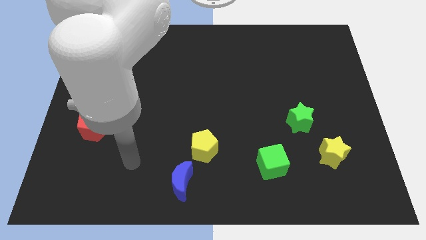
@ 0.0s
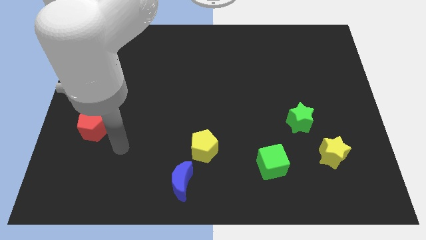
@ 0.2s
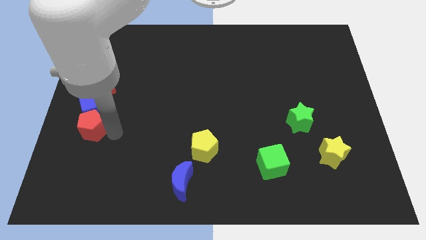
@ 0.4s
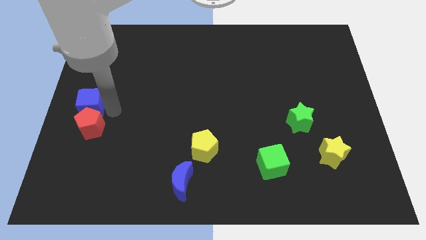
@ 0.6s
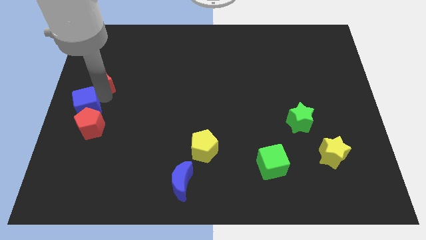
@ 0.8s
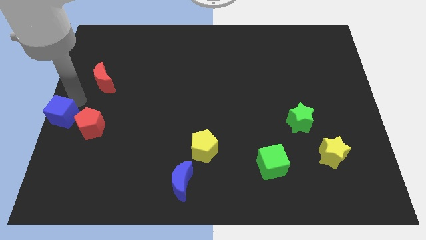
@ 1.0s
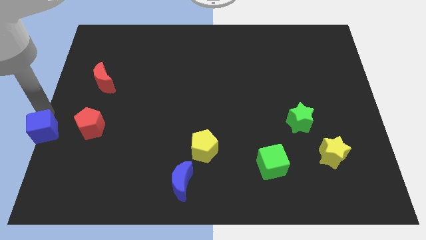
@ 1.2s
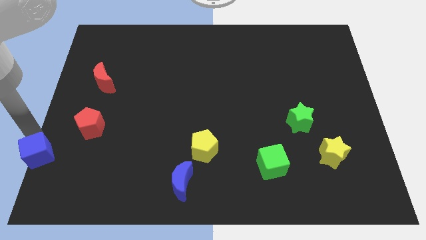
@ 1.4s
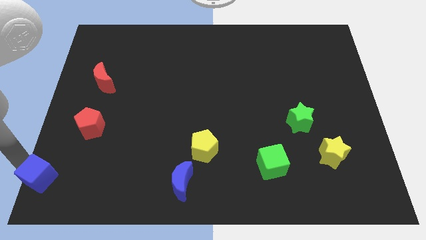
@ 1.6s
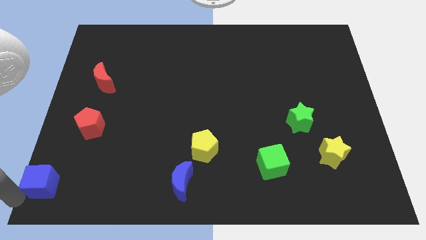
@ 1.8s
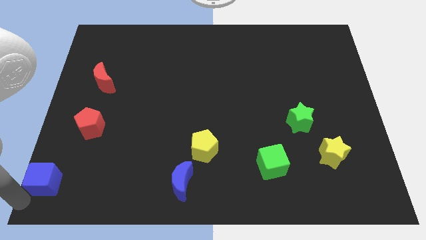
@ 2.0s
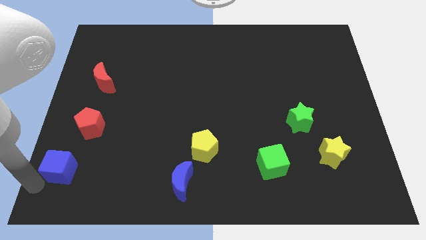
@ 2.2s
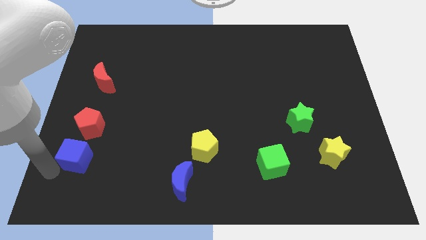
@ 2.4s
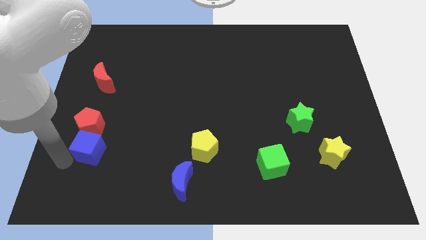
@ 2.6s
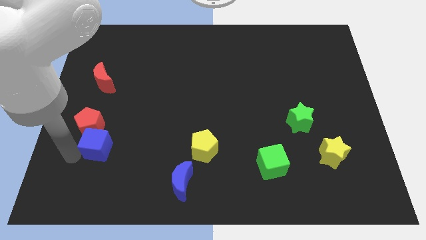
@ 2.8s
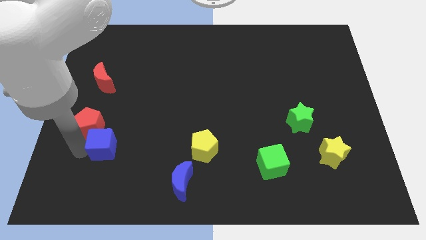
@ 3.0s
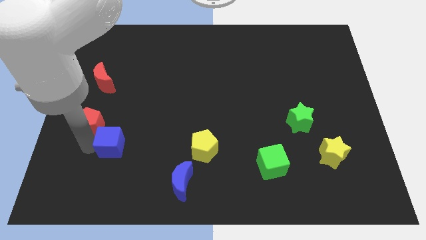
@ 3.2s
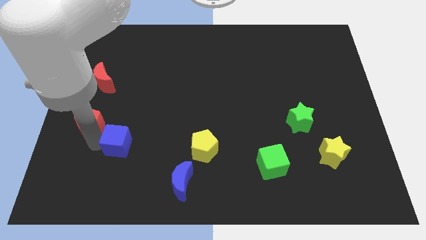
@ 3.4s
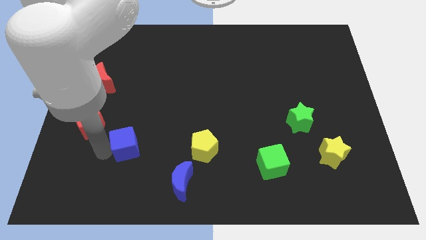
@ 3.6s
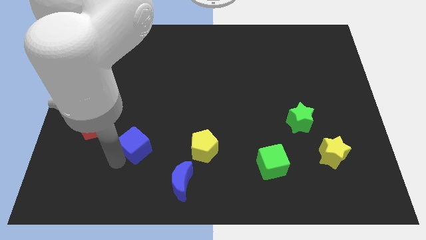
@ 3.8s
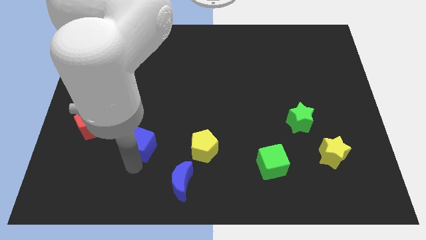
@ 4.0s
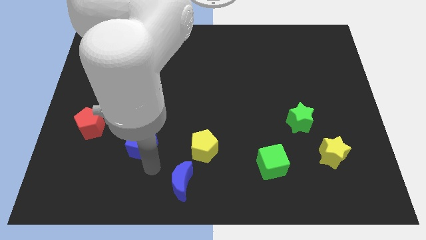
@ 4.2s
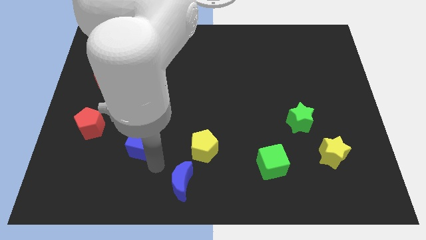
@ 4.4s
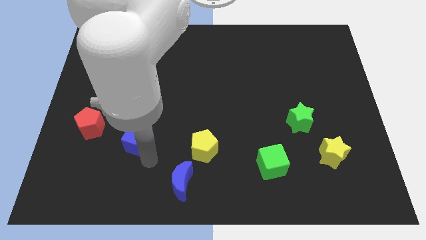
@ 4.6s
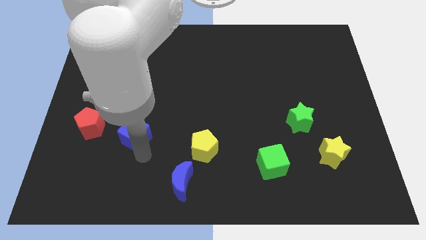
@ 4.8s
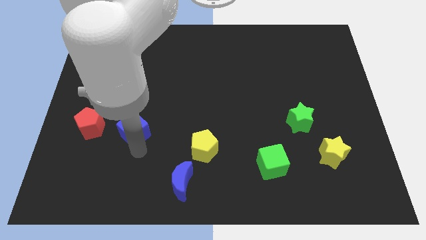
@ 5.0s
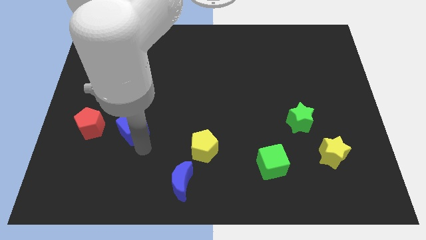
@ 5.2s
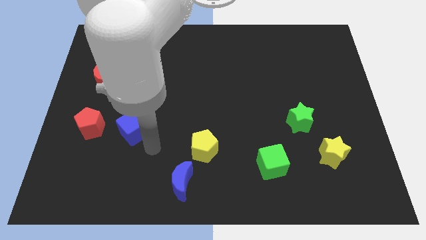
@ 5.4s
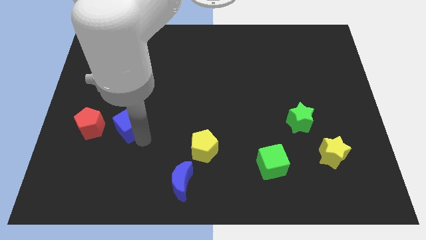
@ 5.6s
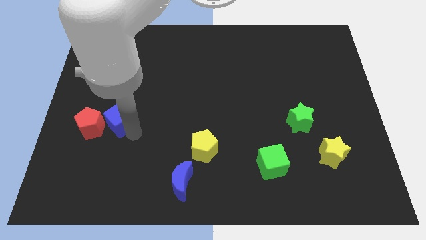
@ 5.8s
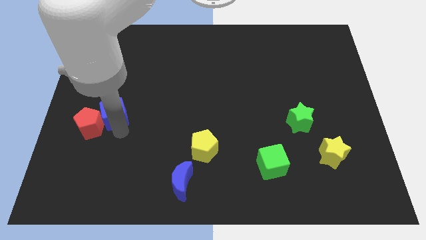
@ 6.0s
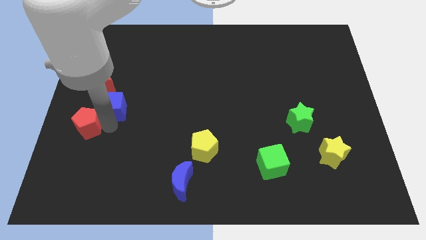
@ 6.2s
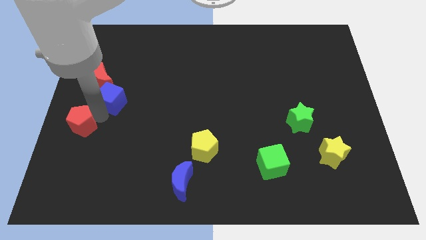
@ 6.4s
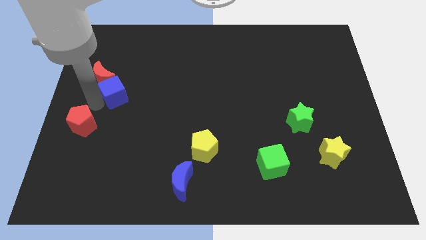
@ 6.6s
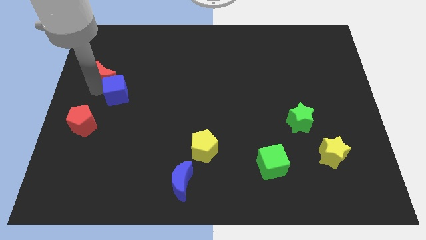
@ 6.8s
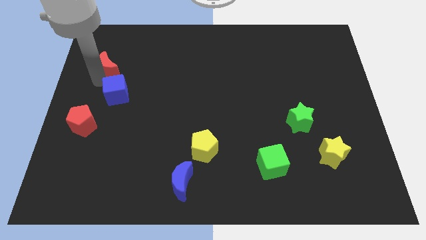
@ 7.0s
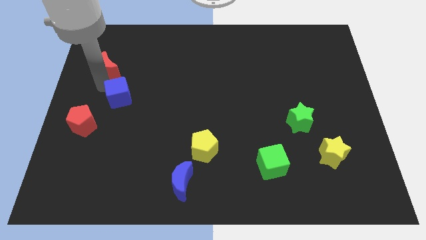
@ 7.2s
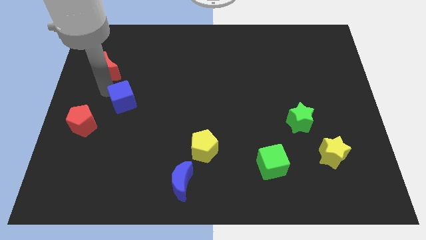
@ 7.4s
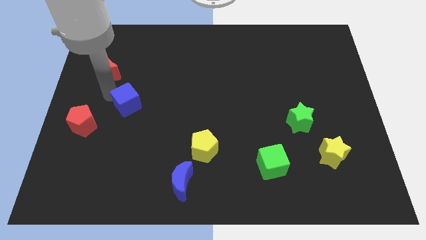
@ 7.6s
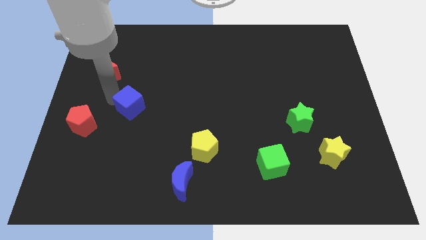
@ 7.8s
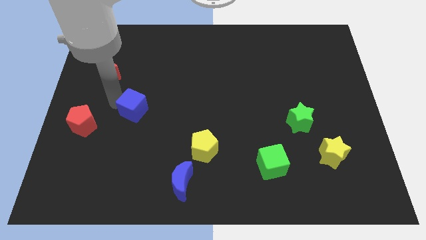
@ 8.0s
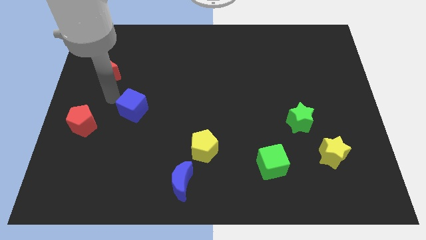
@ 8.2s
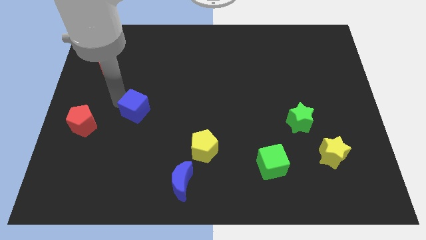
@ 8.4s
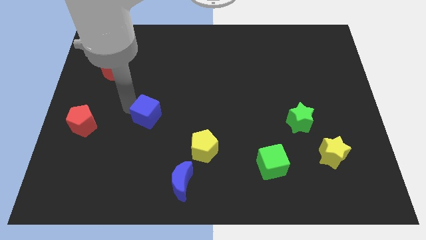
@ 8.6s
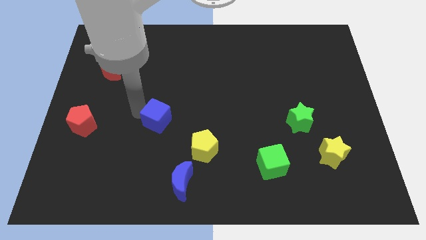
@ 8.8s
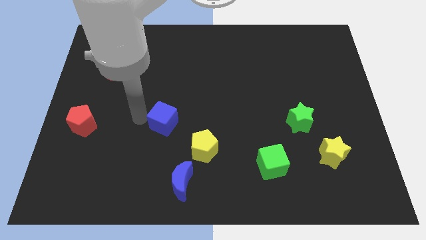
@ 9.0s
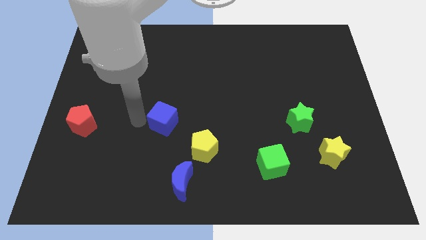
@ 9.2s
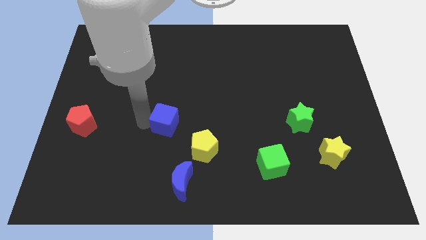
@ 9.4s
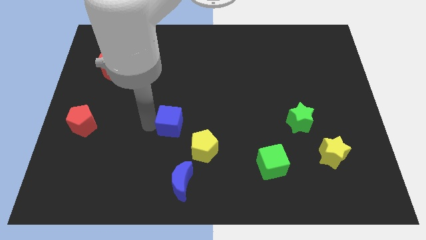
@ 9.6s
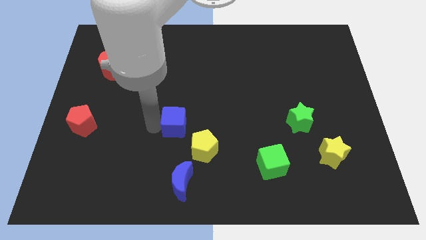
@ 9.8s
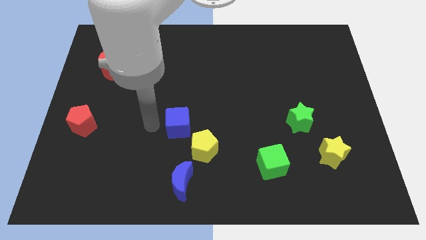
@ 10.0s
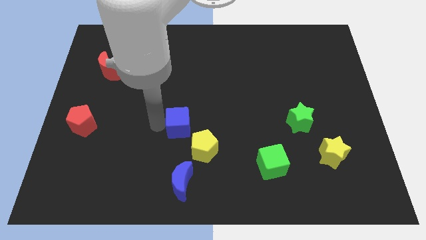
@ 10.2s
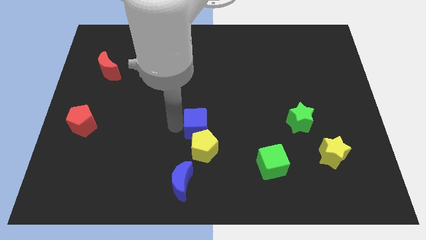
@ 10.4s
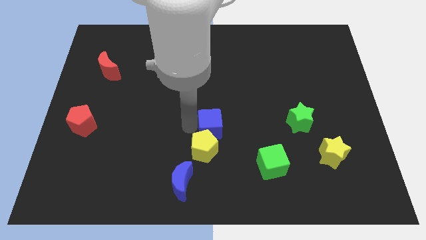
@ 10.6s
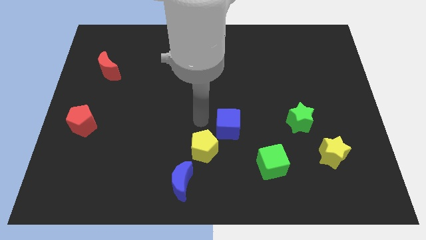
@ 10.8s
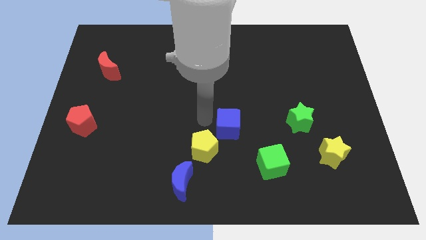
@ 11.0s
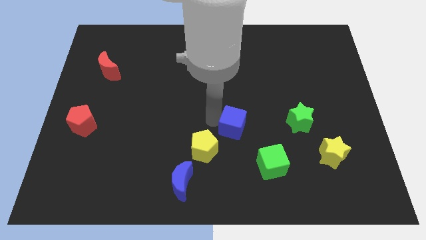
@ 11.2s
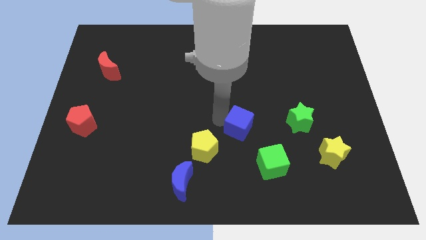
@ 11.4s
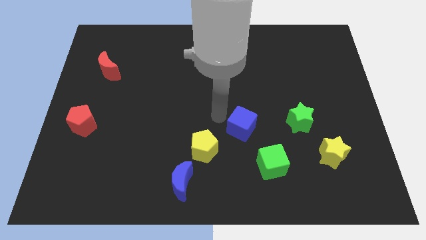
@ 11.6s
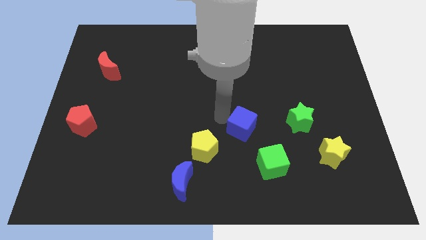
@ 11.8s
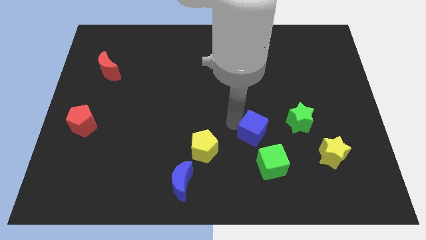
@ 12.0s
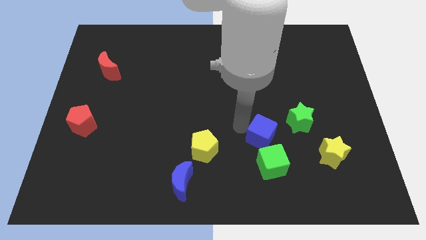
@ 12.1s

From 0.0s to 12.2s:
put the blue cube diagonally down and to the left of the green star
